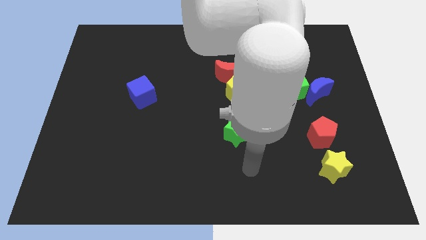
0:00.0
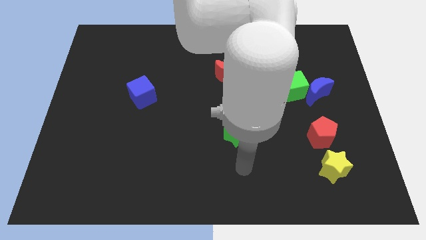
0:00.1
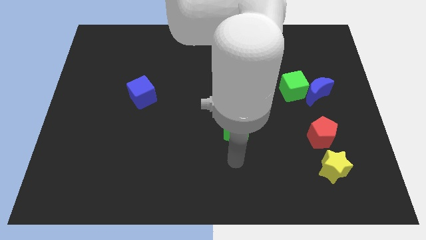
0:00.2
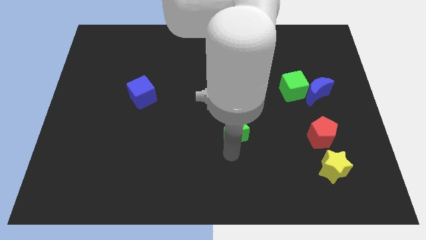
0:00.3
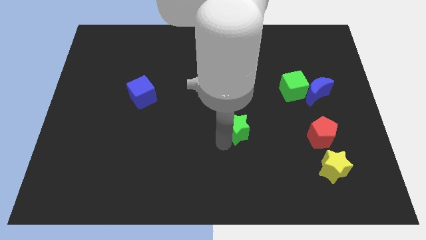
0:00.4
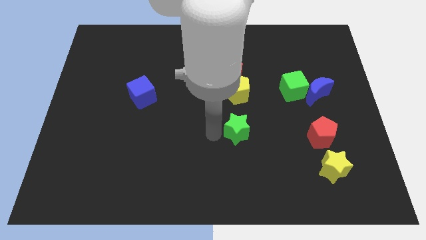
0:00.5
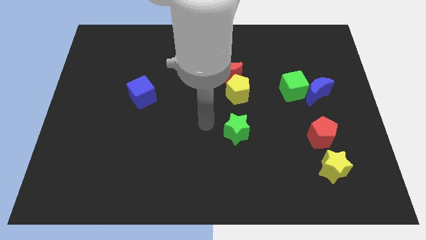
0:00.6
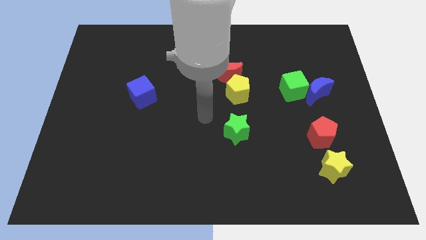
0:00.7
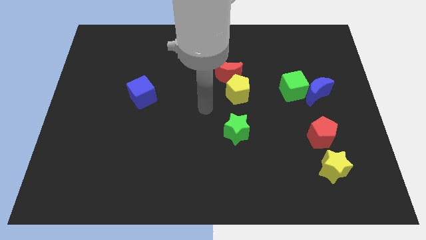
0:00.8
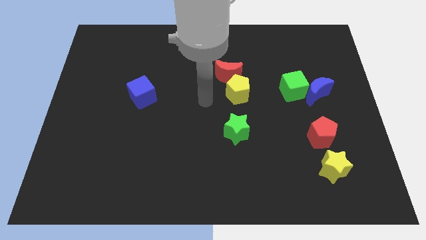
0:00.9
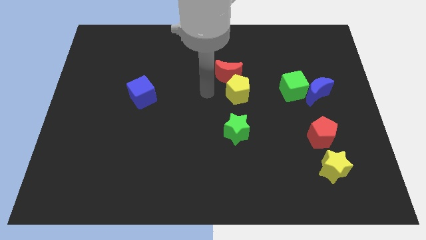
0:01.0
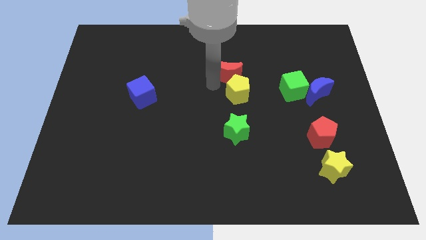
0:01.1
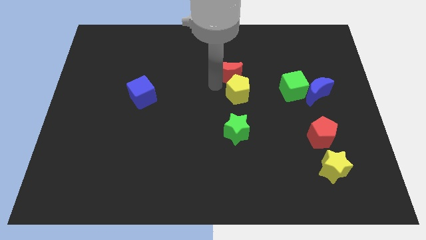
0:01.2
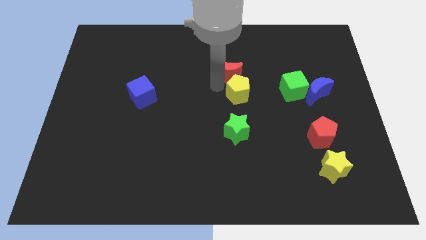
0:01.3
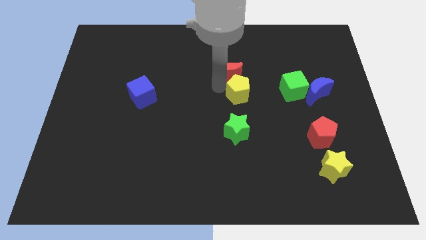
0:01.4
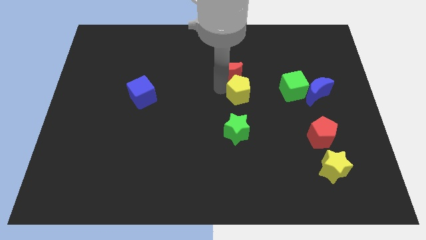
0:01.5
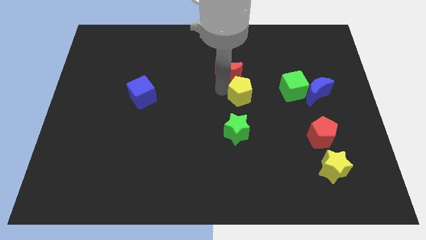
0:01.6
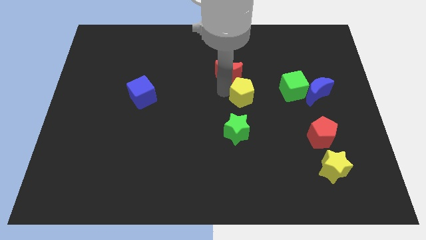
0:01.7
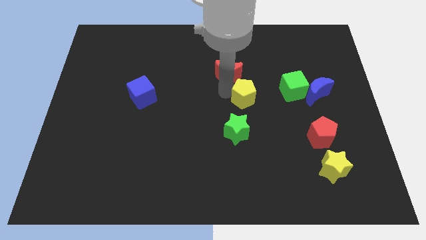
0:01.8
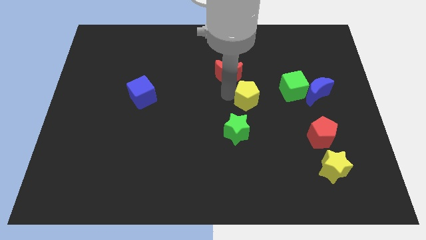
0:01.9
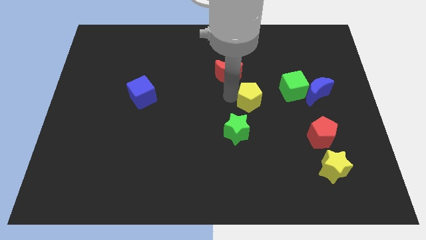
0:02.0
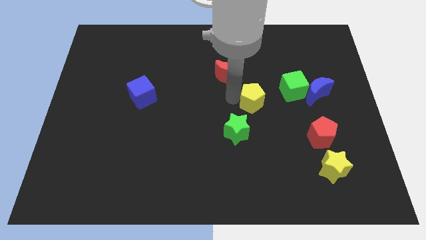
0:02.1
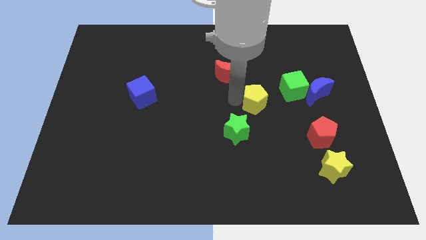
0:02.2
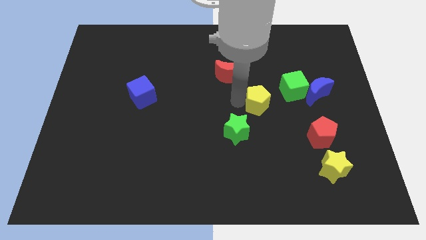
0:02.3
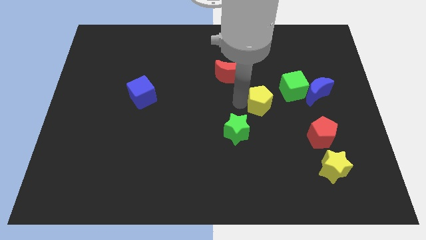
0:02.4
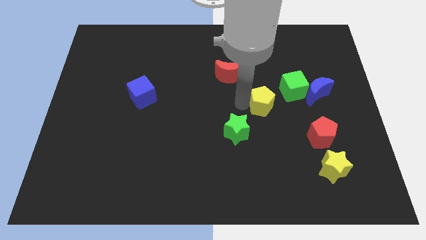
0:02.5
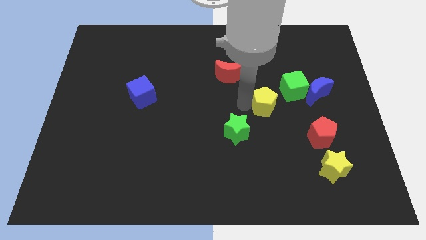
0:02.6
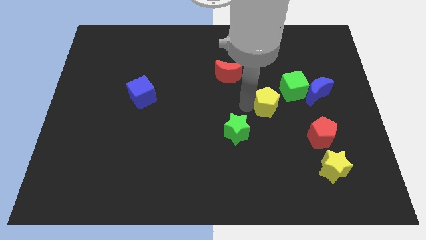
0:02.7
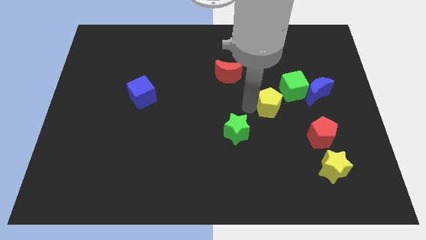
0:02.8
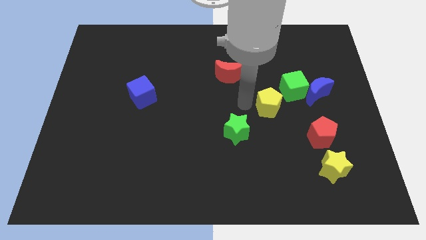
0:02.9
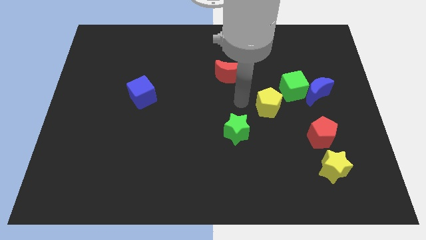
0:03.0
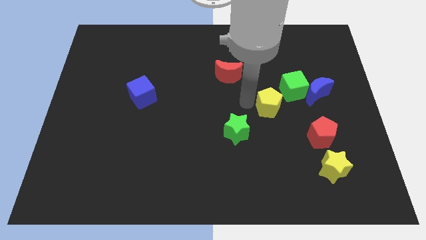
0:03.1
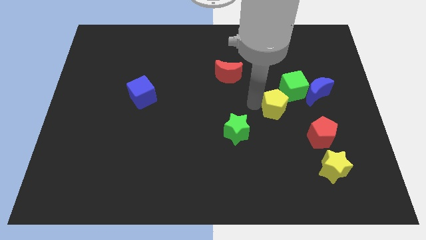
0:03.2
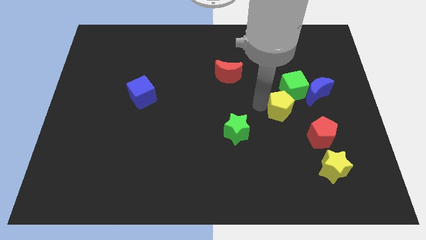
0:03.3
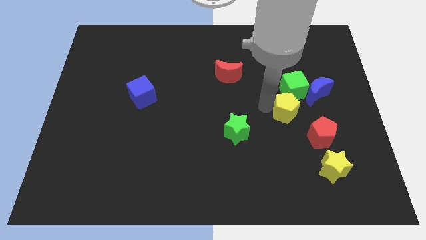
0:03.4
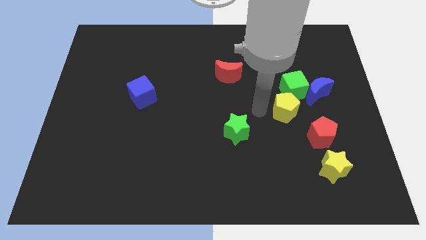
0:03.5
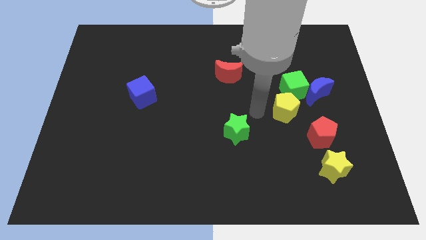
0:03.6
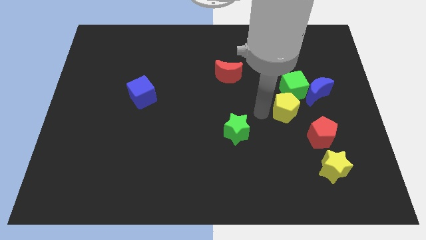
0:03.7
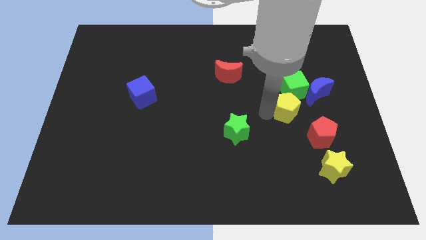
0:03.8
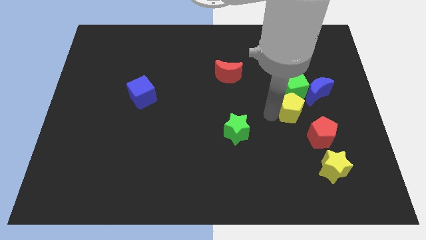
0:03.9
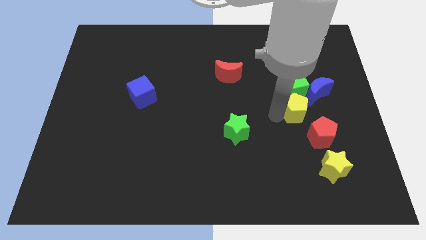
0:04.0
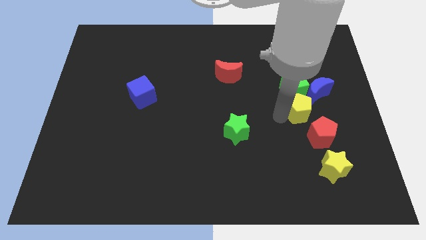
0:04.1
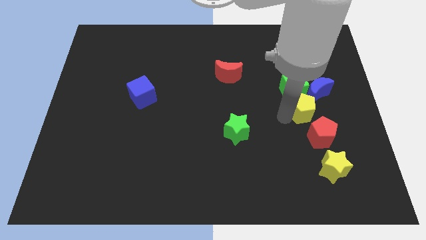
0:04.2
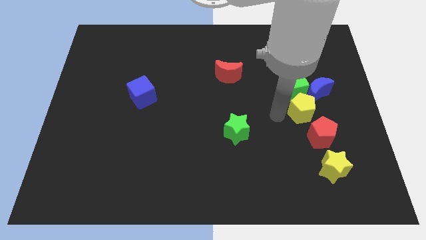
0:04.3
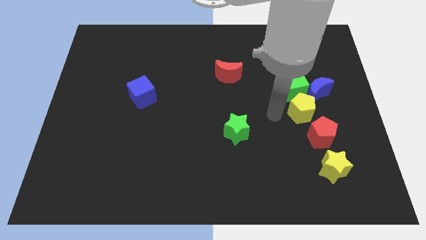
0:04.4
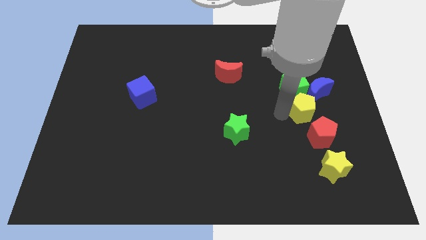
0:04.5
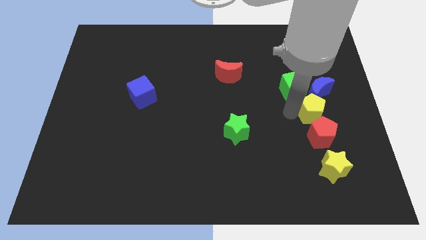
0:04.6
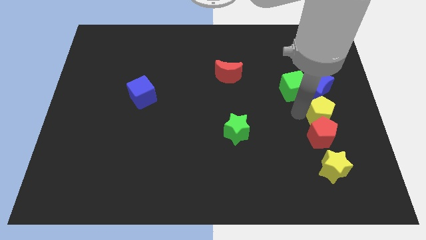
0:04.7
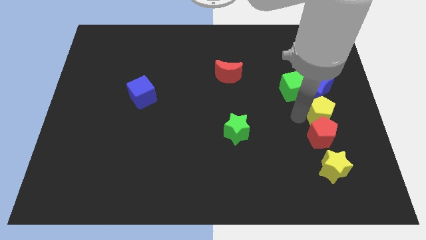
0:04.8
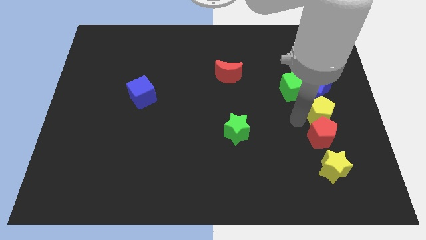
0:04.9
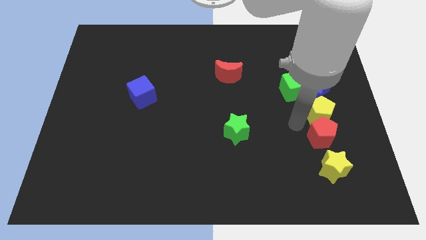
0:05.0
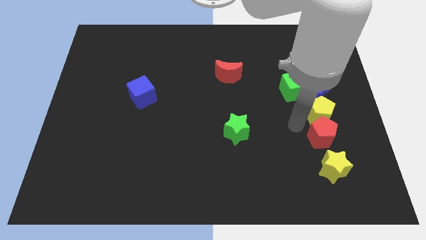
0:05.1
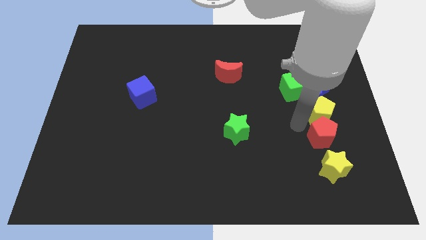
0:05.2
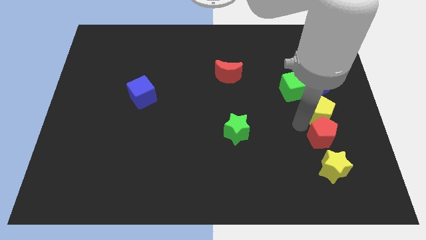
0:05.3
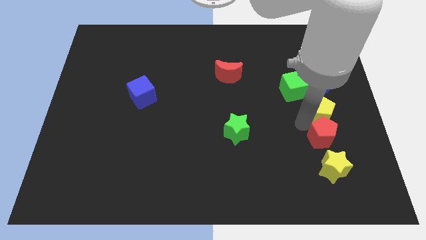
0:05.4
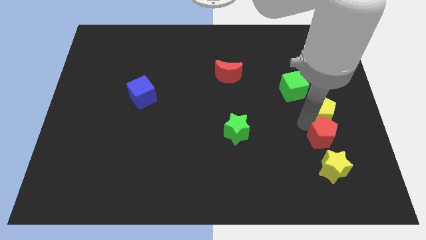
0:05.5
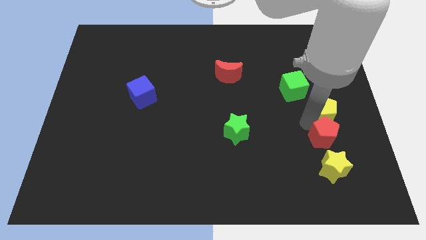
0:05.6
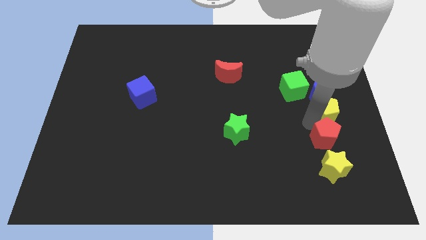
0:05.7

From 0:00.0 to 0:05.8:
move the yellow pentagon to the right side of the board
